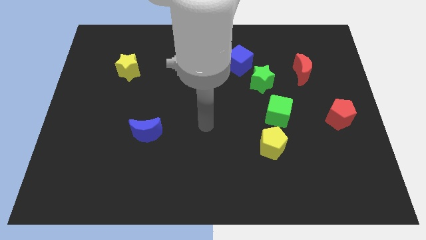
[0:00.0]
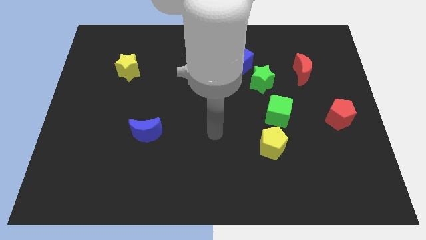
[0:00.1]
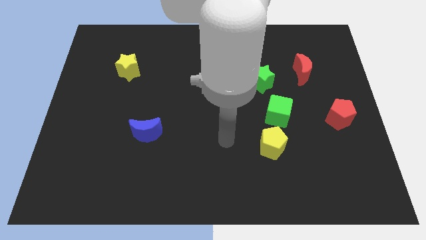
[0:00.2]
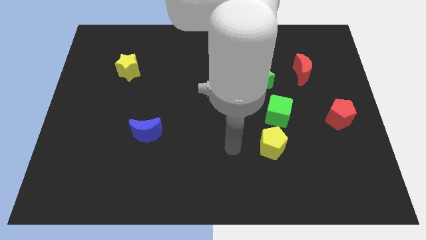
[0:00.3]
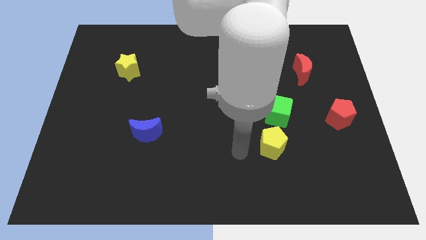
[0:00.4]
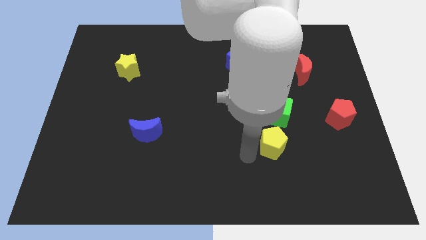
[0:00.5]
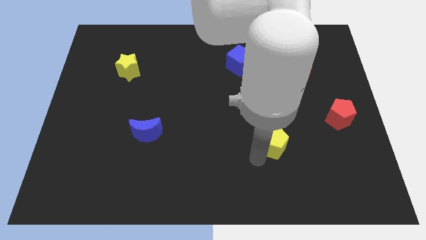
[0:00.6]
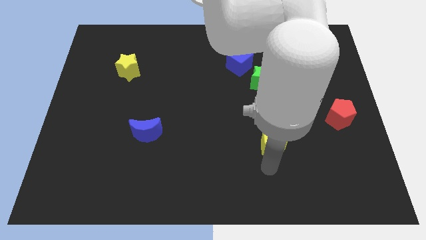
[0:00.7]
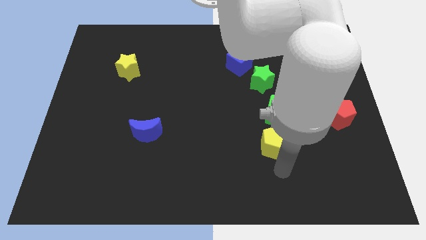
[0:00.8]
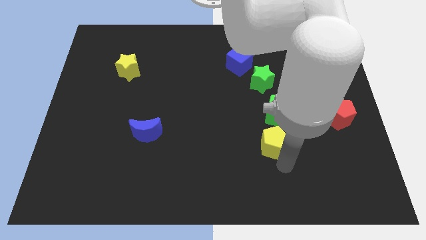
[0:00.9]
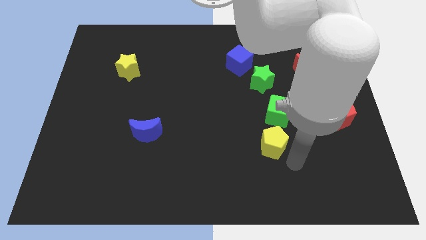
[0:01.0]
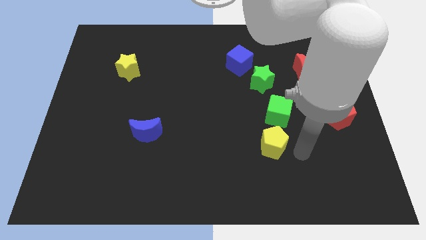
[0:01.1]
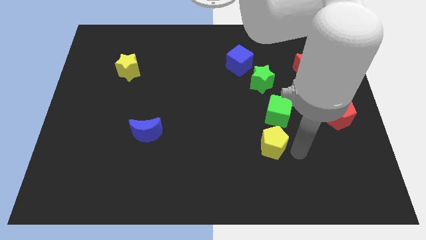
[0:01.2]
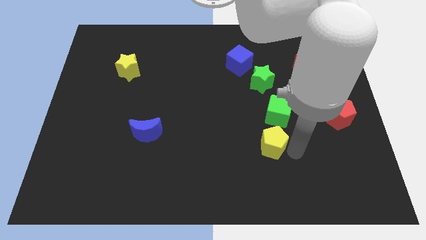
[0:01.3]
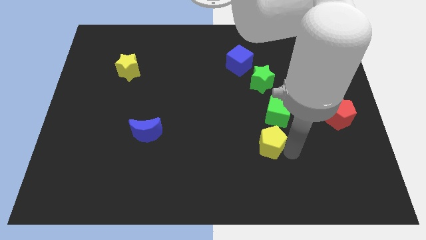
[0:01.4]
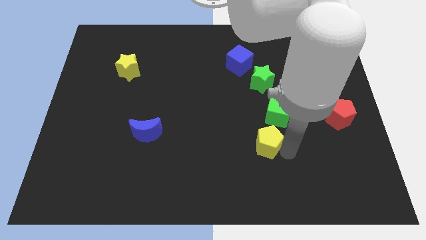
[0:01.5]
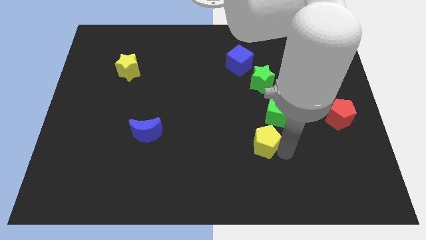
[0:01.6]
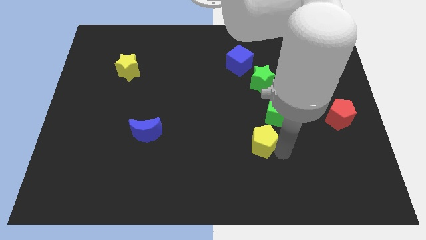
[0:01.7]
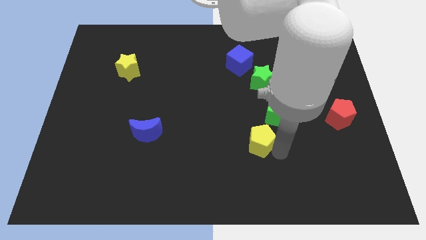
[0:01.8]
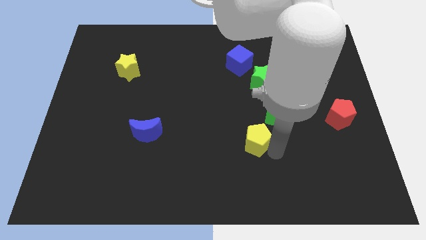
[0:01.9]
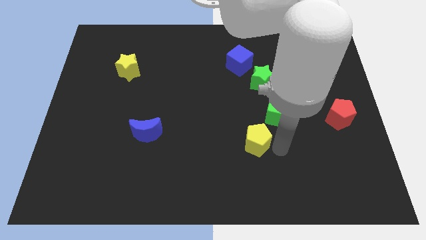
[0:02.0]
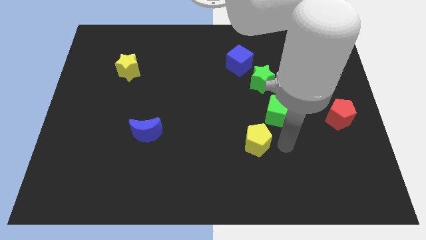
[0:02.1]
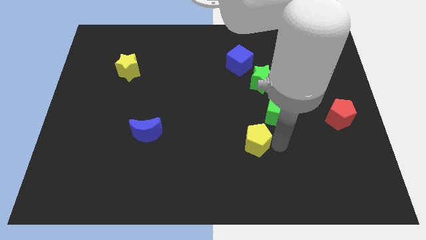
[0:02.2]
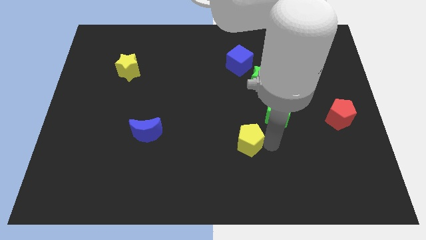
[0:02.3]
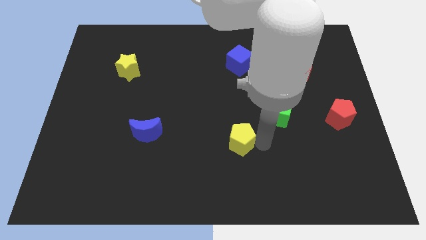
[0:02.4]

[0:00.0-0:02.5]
slightly push the yellow pentagon left

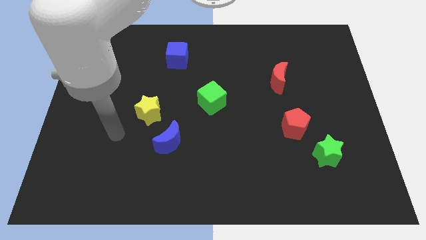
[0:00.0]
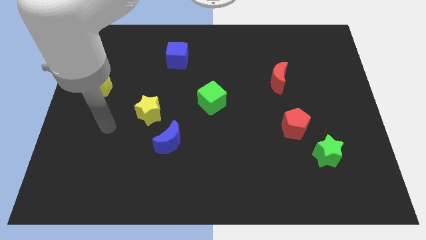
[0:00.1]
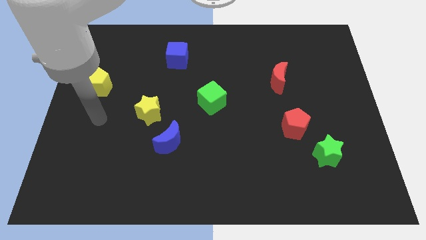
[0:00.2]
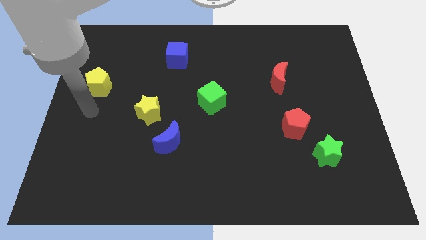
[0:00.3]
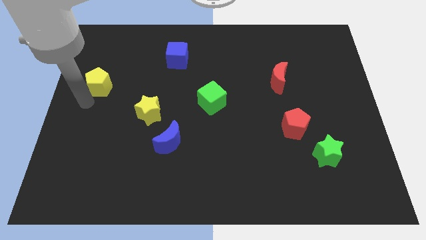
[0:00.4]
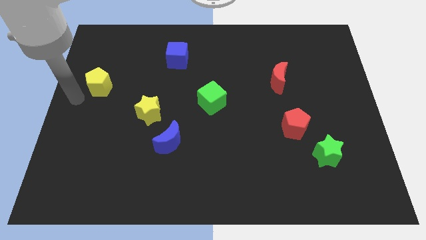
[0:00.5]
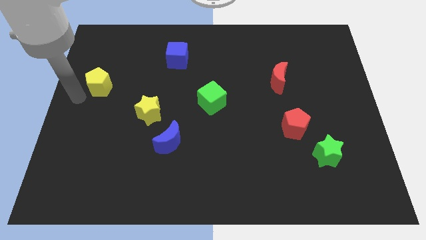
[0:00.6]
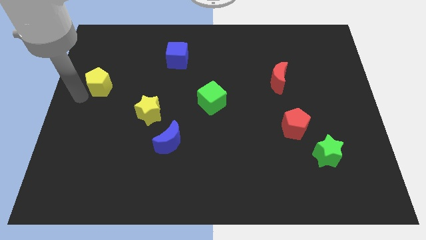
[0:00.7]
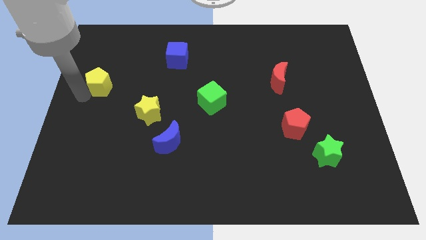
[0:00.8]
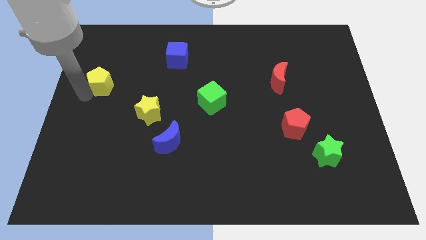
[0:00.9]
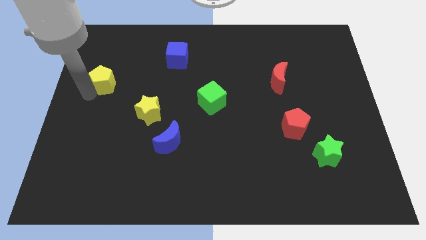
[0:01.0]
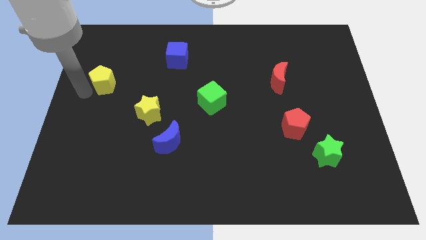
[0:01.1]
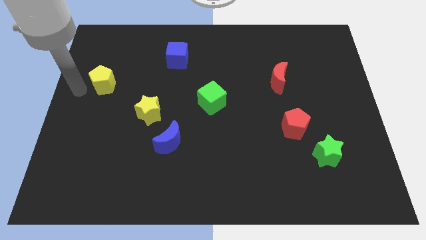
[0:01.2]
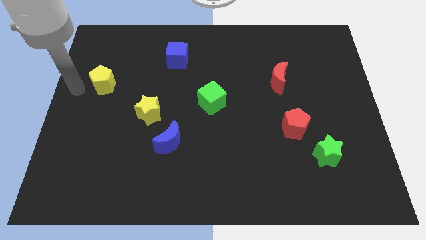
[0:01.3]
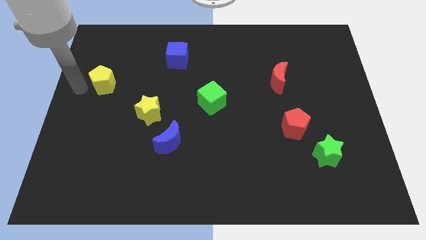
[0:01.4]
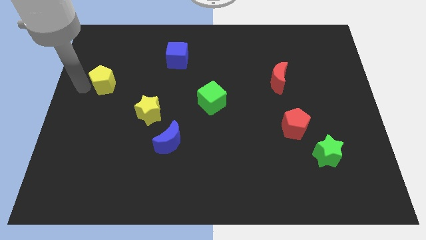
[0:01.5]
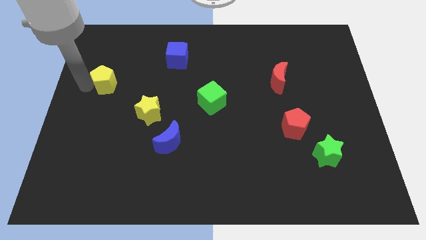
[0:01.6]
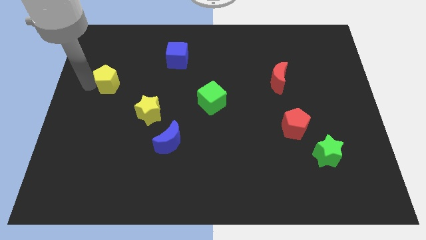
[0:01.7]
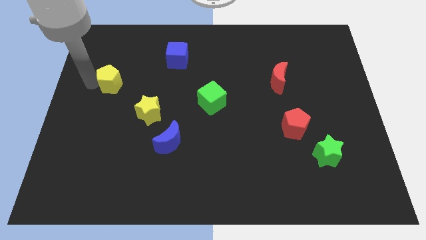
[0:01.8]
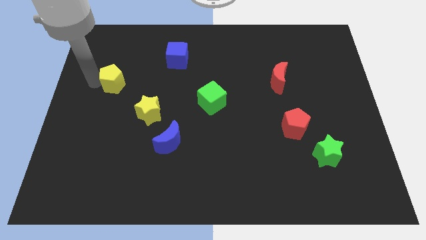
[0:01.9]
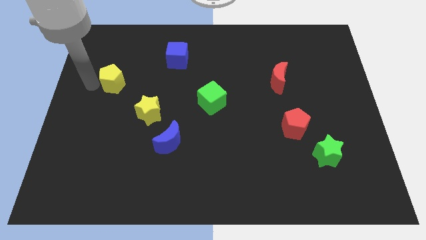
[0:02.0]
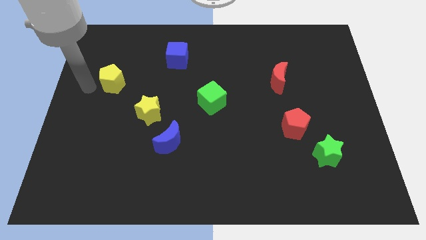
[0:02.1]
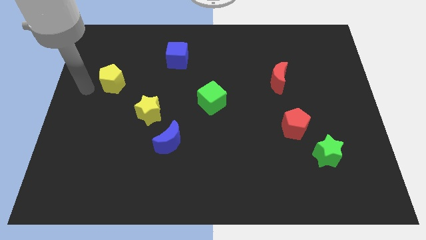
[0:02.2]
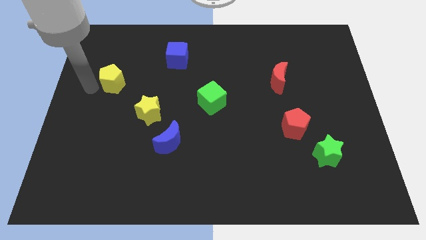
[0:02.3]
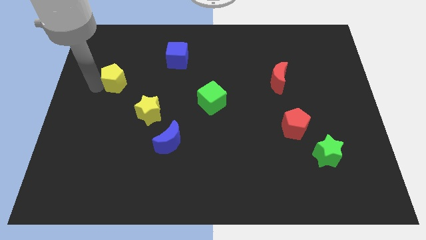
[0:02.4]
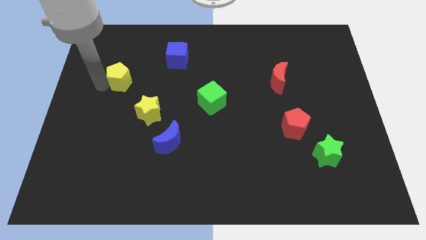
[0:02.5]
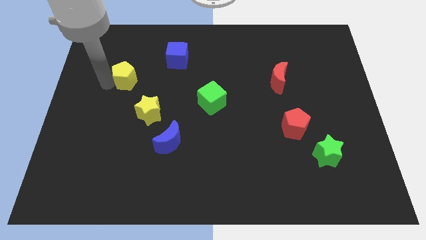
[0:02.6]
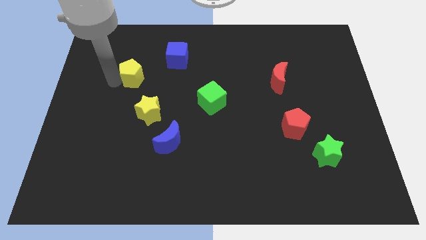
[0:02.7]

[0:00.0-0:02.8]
slightly slide the yellow pentagon right

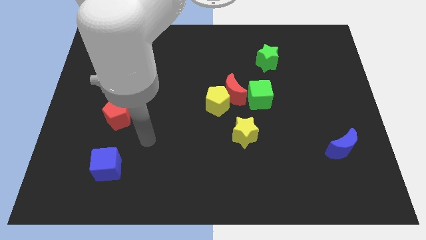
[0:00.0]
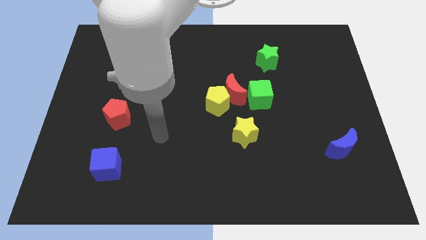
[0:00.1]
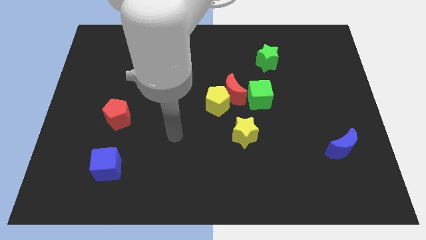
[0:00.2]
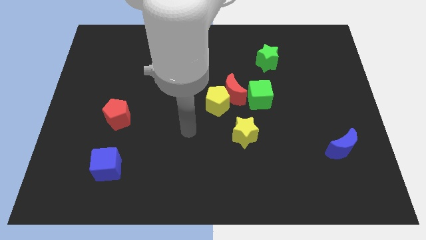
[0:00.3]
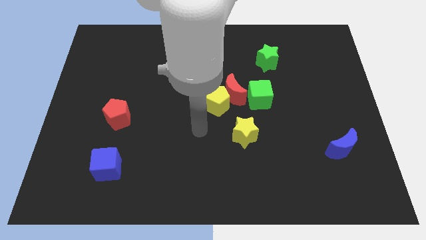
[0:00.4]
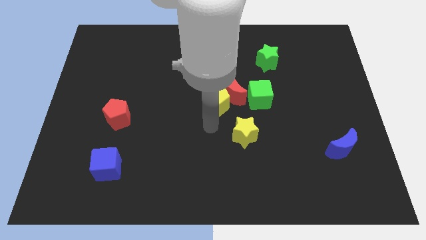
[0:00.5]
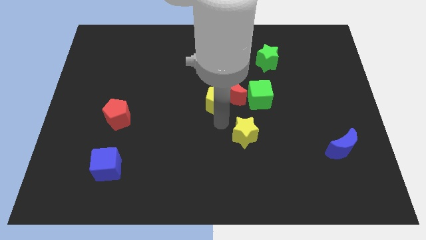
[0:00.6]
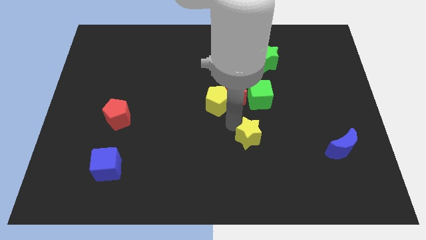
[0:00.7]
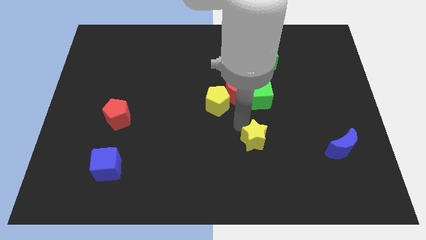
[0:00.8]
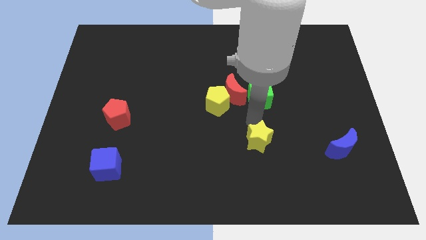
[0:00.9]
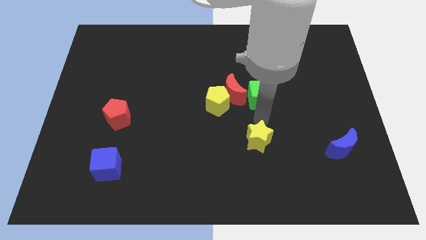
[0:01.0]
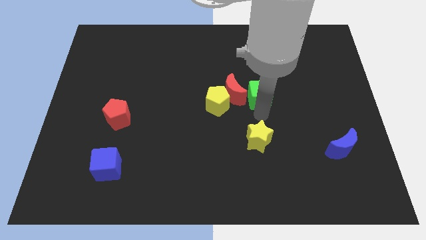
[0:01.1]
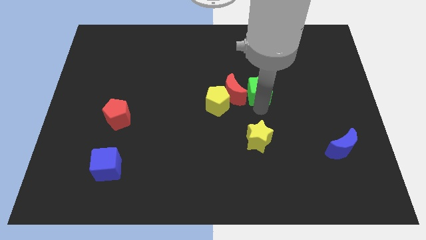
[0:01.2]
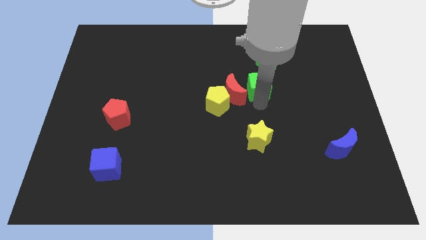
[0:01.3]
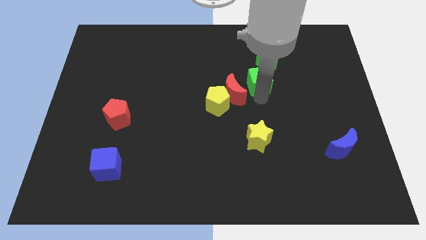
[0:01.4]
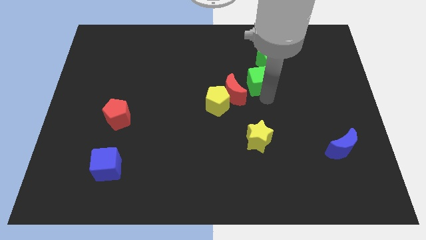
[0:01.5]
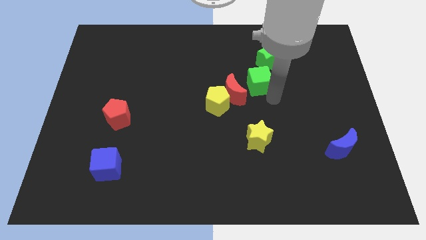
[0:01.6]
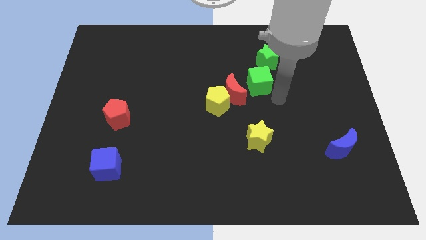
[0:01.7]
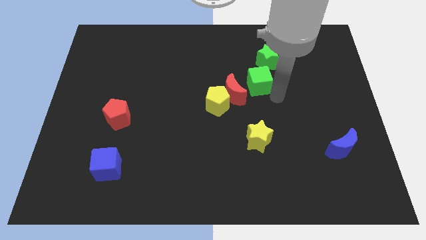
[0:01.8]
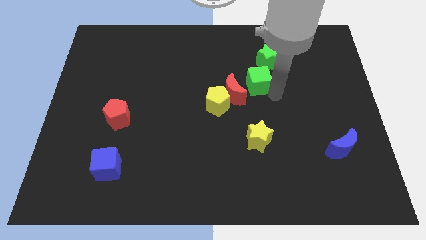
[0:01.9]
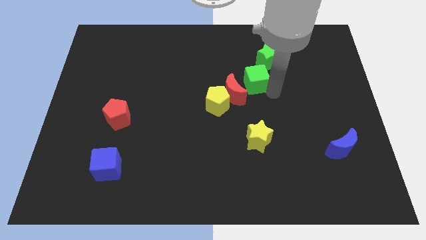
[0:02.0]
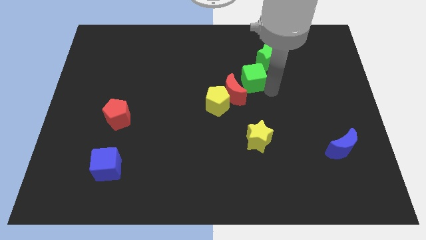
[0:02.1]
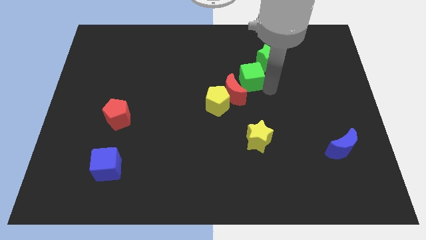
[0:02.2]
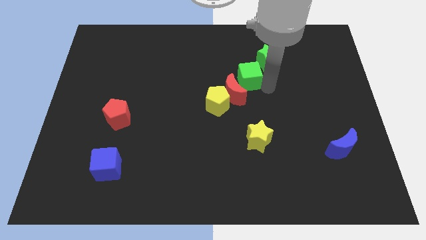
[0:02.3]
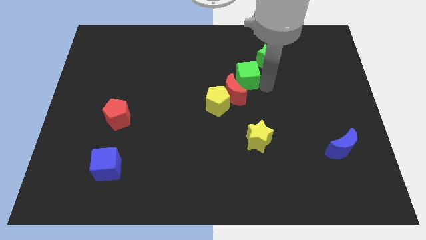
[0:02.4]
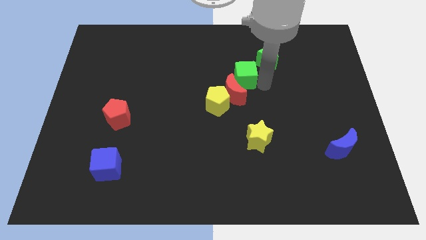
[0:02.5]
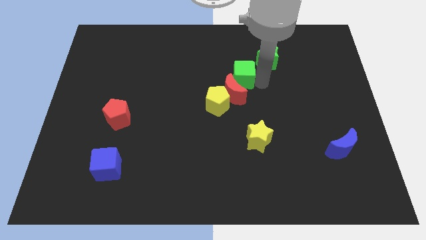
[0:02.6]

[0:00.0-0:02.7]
slightly slide the green cube up and to the left diagonally
